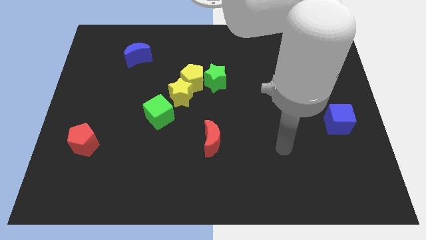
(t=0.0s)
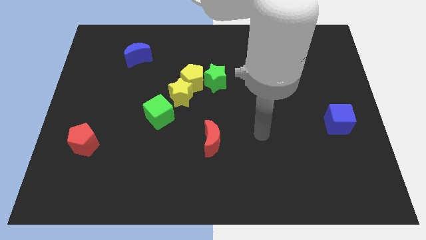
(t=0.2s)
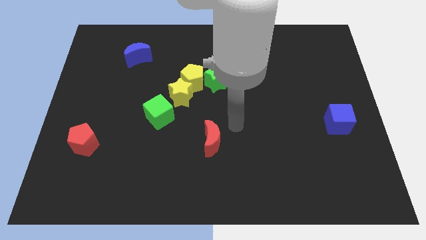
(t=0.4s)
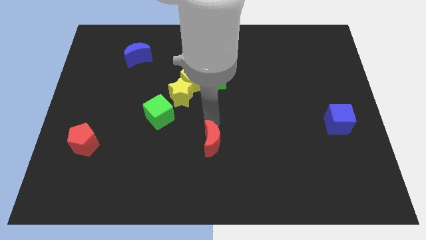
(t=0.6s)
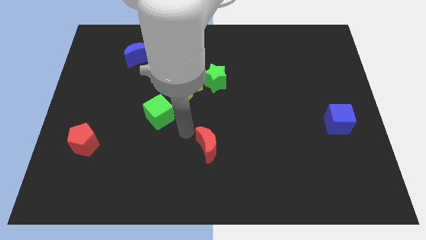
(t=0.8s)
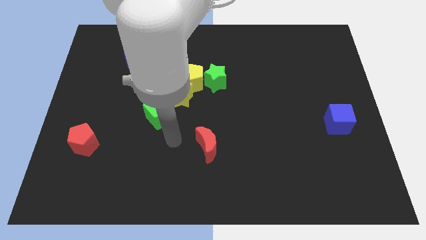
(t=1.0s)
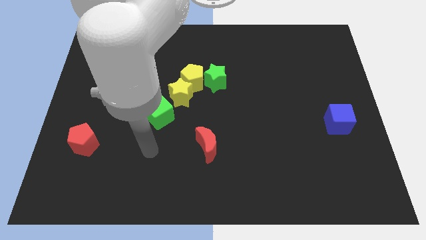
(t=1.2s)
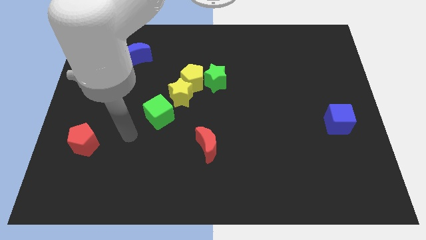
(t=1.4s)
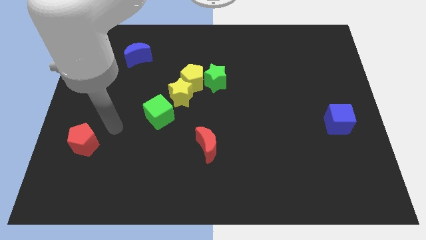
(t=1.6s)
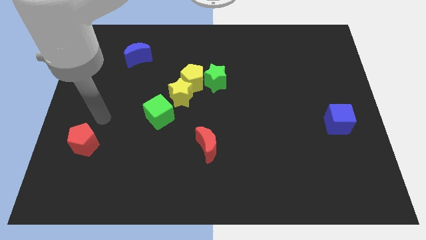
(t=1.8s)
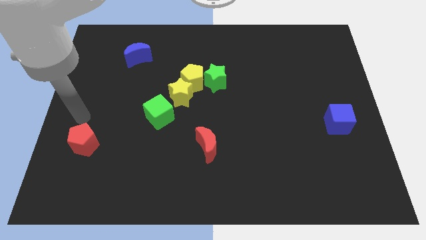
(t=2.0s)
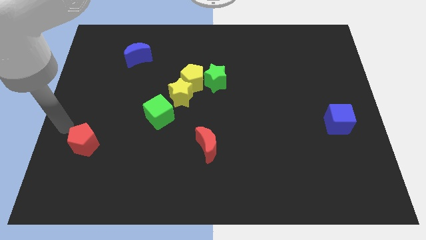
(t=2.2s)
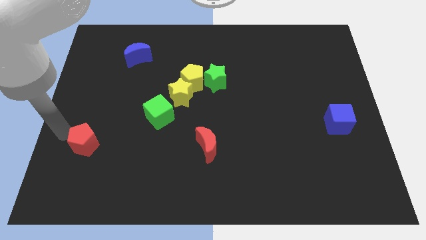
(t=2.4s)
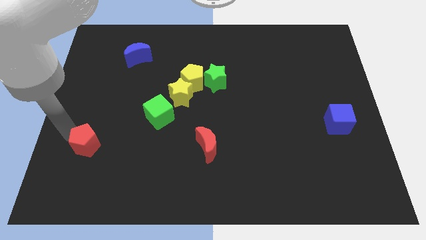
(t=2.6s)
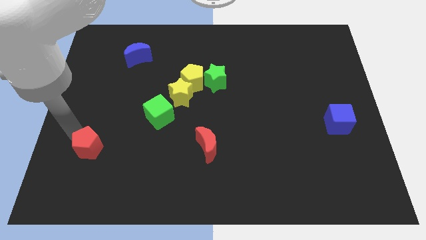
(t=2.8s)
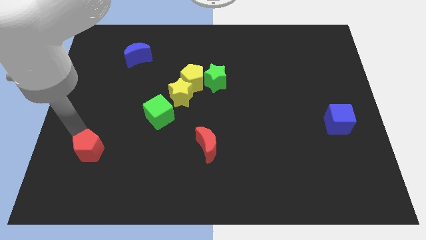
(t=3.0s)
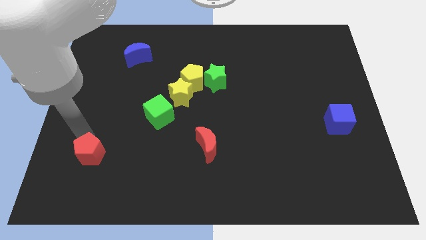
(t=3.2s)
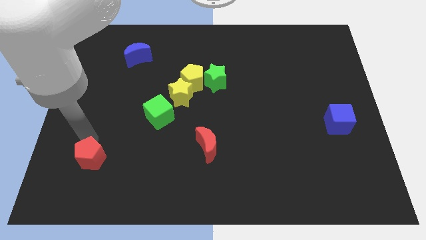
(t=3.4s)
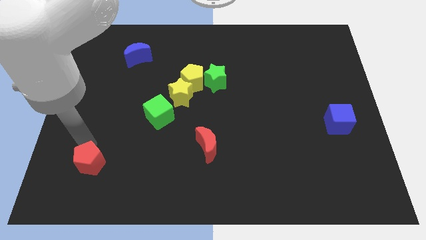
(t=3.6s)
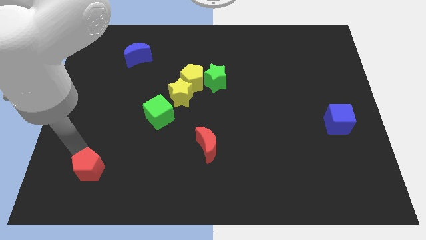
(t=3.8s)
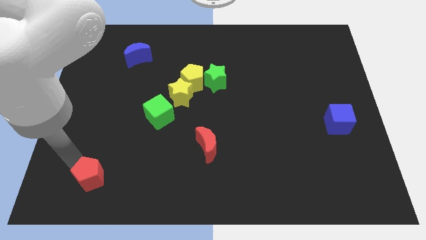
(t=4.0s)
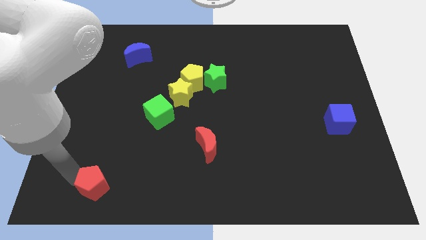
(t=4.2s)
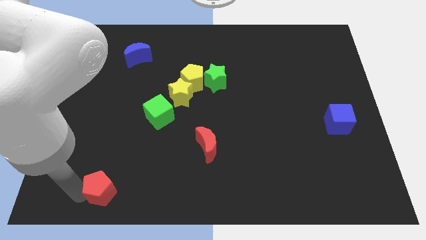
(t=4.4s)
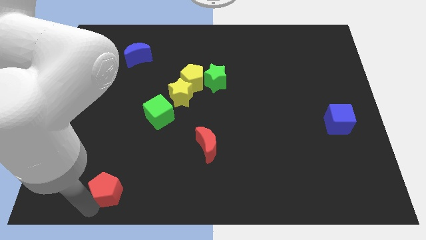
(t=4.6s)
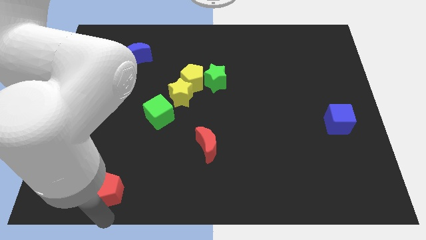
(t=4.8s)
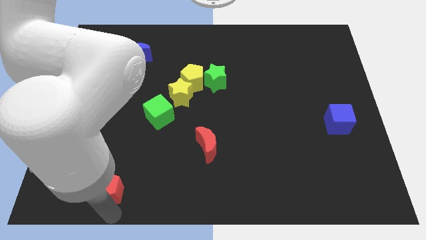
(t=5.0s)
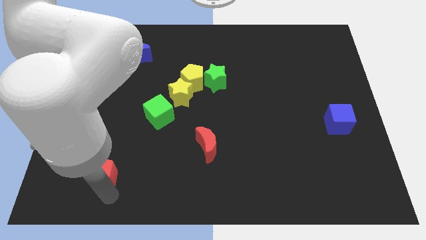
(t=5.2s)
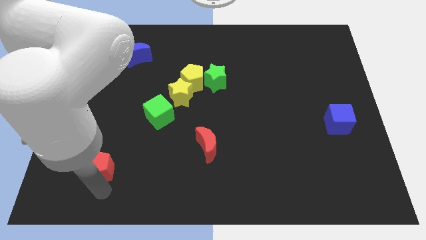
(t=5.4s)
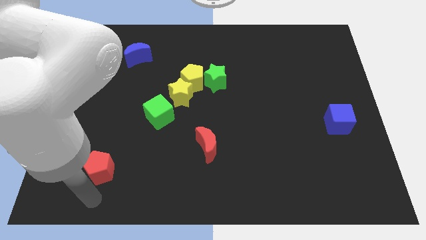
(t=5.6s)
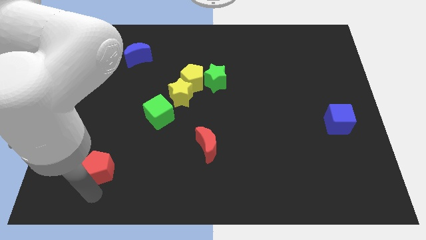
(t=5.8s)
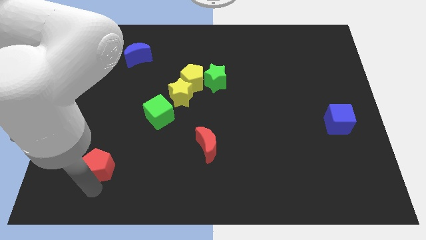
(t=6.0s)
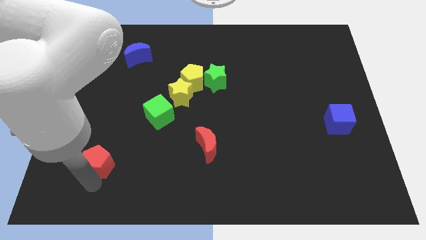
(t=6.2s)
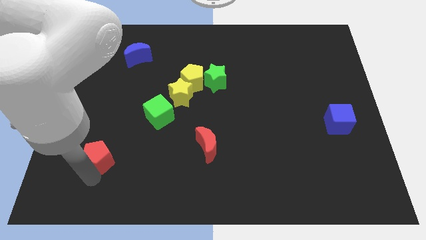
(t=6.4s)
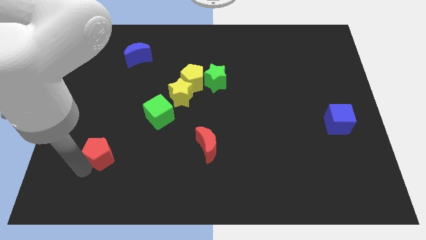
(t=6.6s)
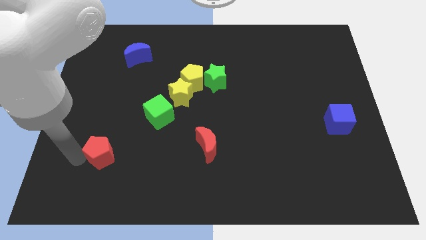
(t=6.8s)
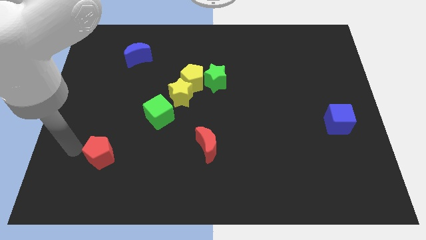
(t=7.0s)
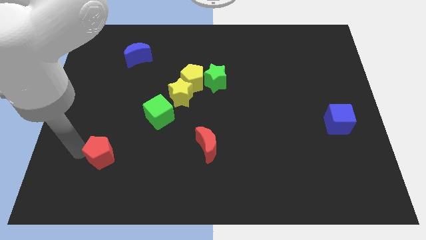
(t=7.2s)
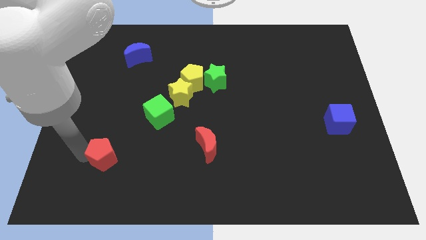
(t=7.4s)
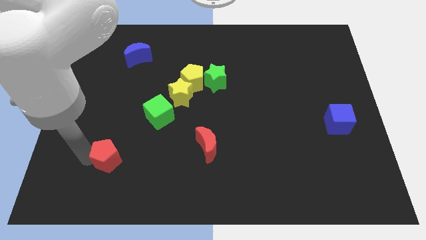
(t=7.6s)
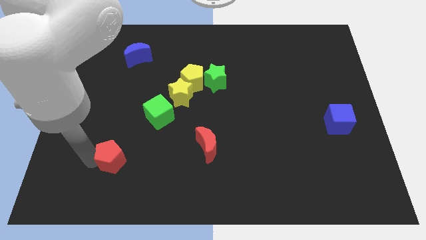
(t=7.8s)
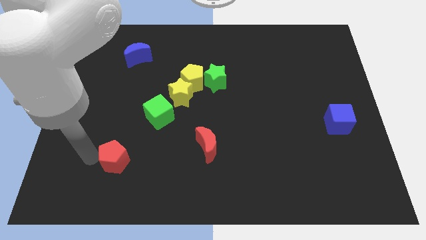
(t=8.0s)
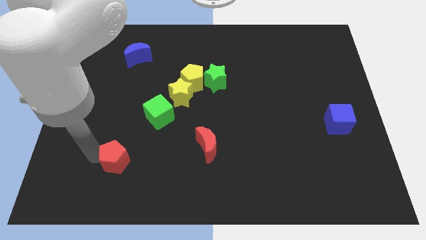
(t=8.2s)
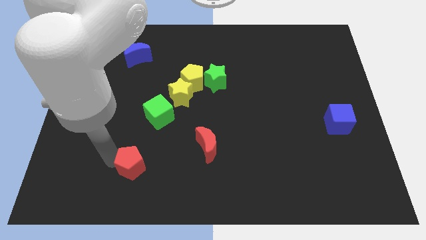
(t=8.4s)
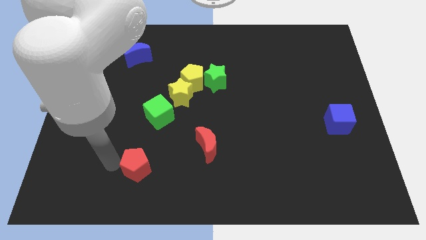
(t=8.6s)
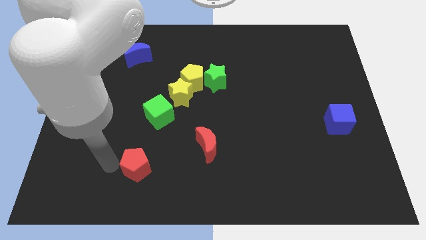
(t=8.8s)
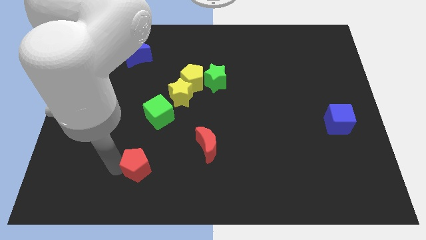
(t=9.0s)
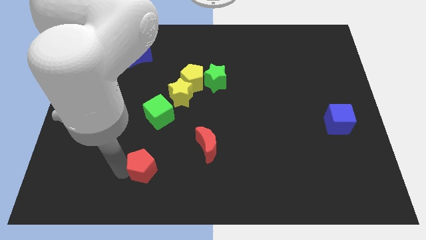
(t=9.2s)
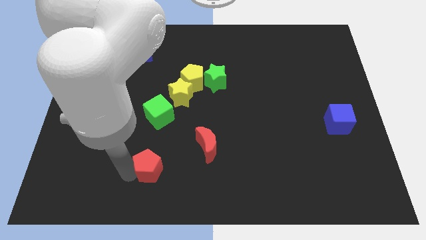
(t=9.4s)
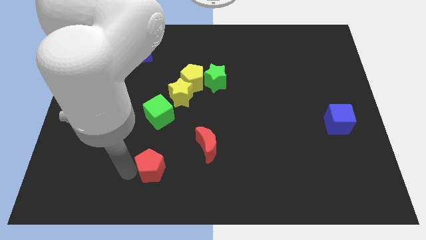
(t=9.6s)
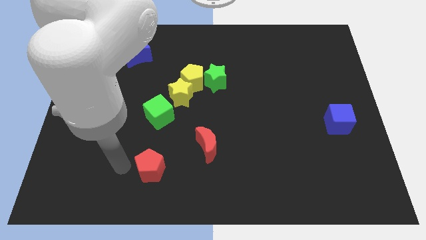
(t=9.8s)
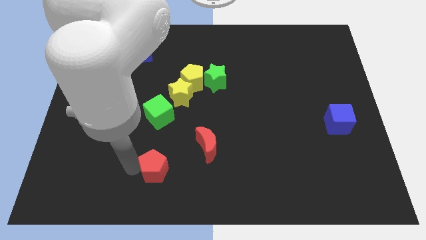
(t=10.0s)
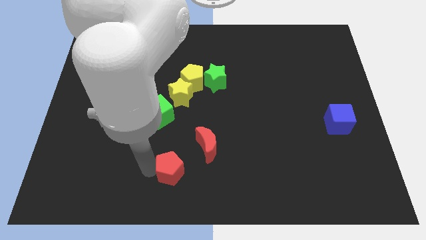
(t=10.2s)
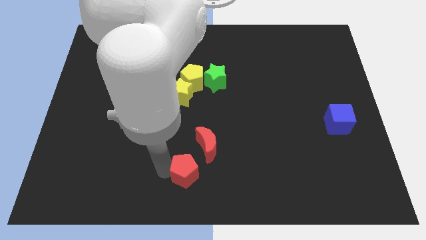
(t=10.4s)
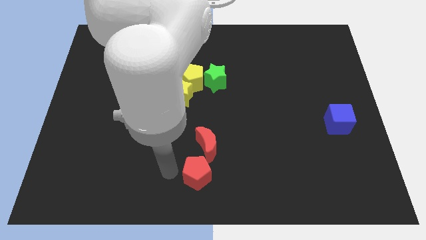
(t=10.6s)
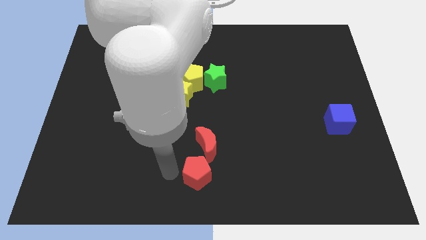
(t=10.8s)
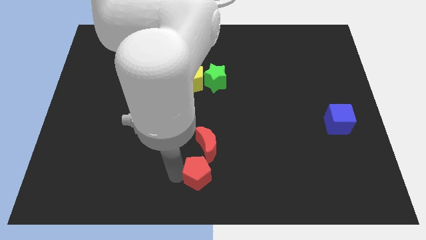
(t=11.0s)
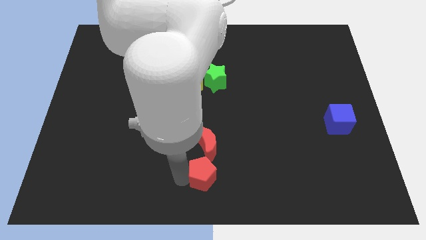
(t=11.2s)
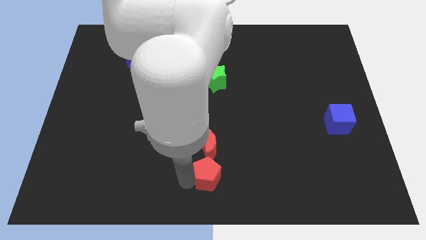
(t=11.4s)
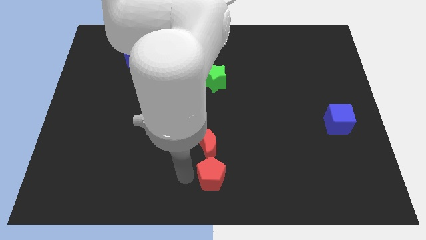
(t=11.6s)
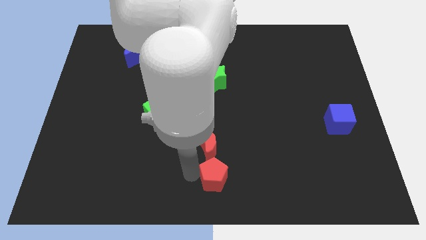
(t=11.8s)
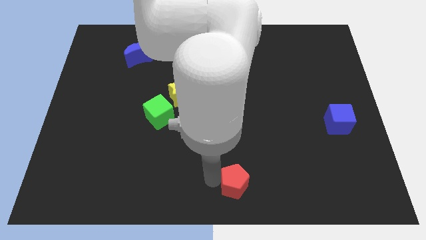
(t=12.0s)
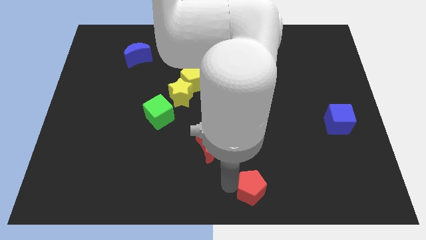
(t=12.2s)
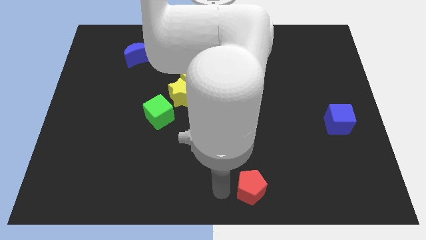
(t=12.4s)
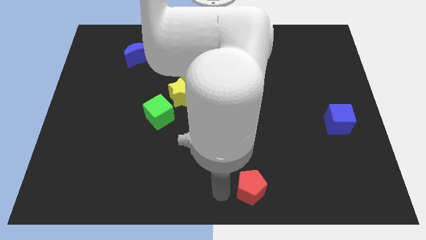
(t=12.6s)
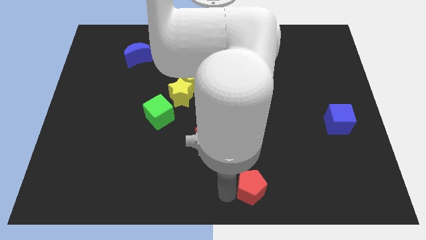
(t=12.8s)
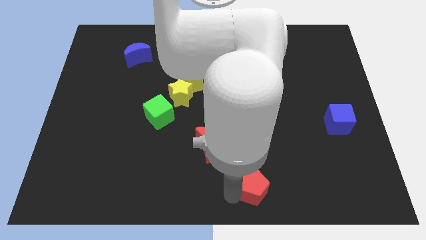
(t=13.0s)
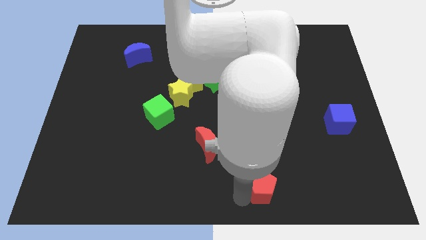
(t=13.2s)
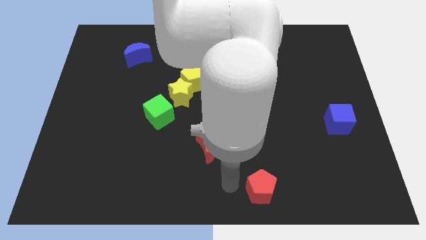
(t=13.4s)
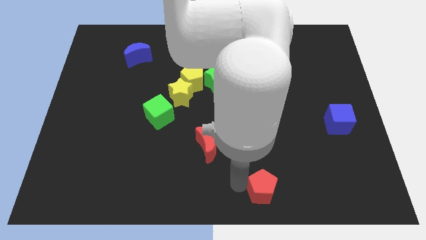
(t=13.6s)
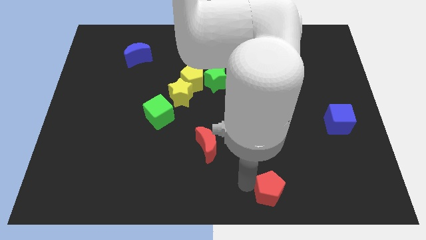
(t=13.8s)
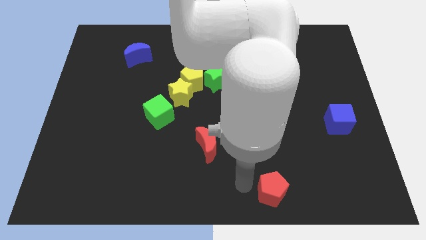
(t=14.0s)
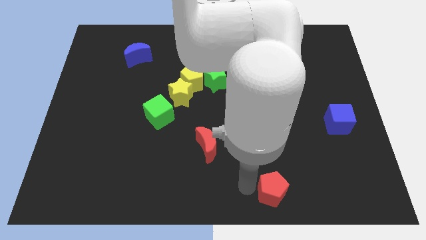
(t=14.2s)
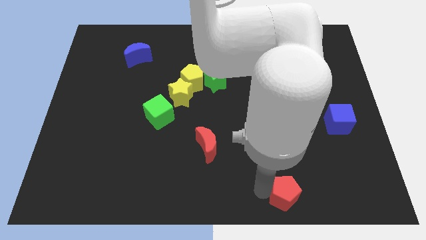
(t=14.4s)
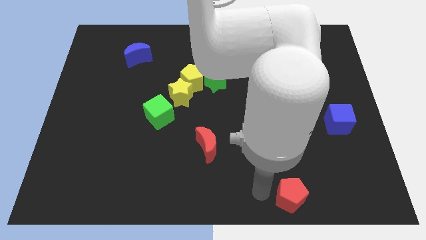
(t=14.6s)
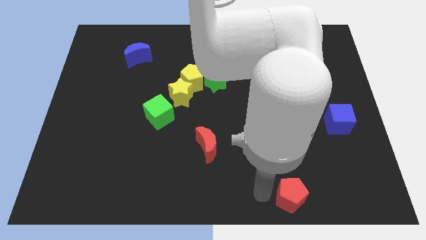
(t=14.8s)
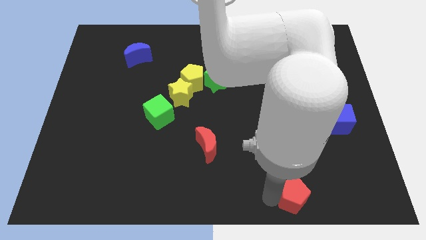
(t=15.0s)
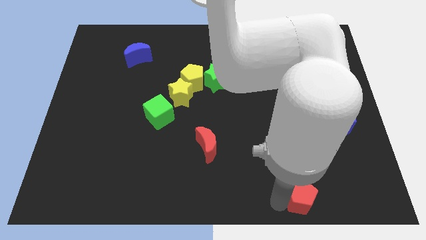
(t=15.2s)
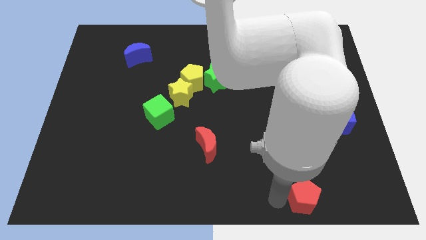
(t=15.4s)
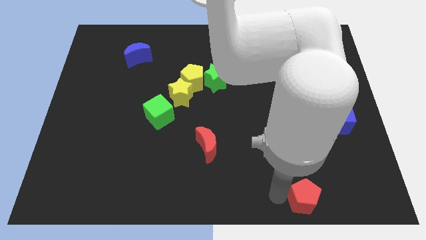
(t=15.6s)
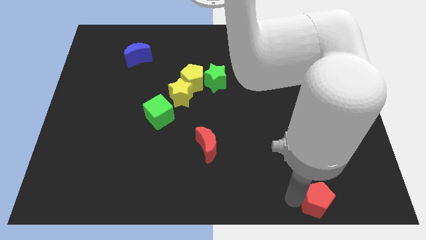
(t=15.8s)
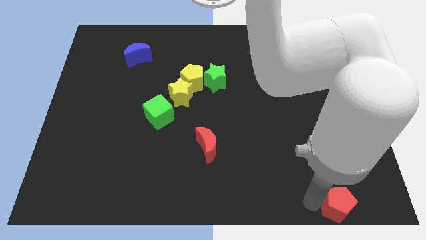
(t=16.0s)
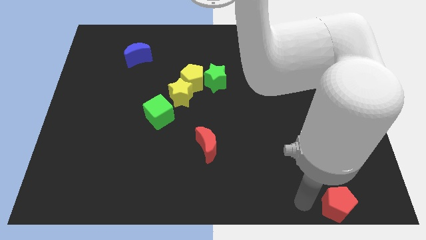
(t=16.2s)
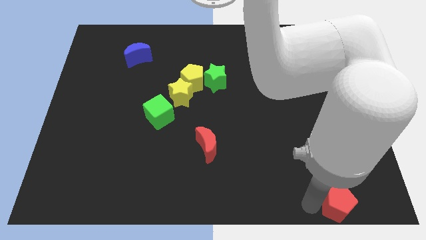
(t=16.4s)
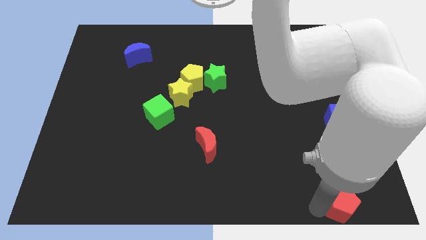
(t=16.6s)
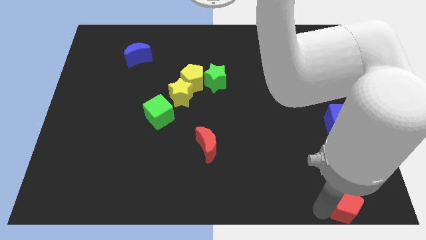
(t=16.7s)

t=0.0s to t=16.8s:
put the red pentagon to the bottom right
